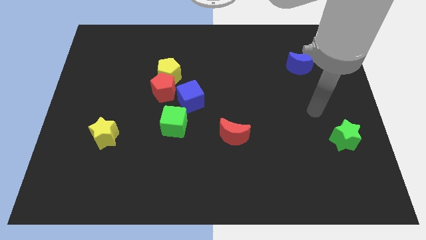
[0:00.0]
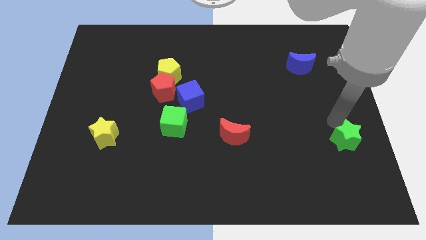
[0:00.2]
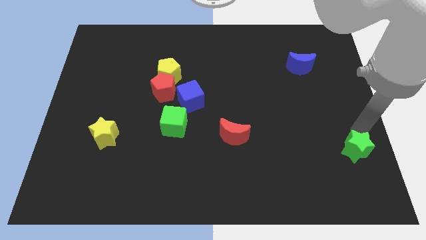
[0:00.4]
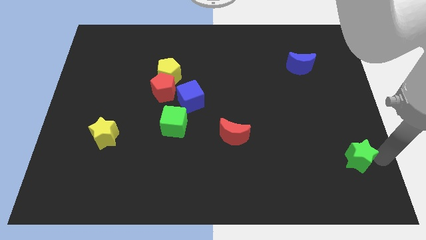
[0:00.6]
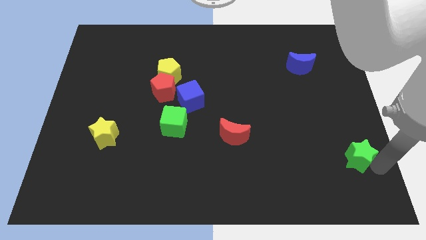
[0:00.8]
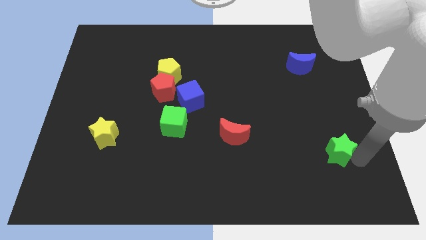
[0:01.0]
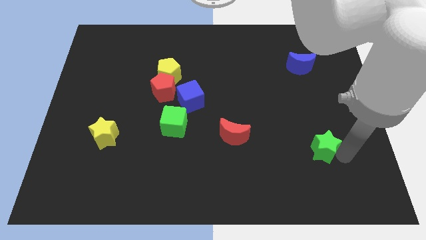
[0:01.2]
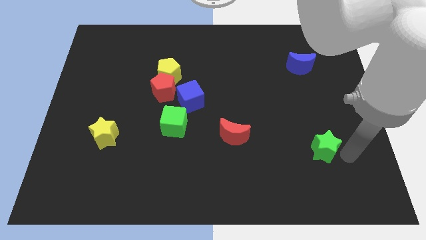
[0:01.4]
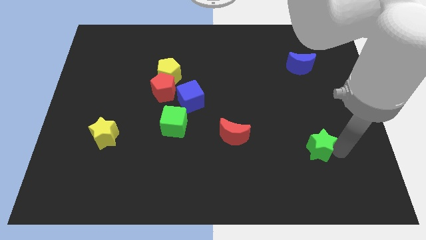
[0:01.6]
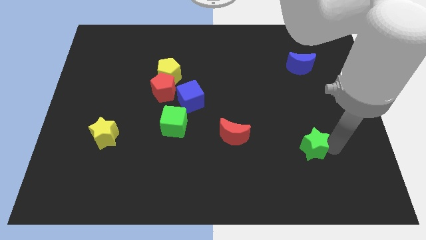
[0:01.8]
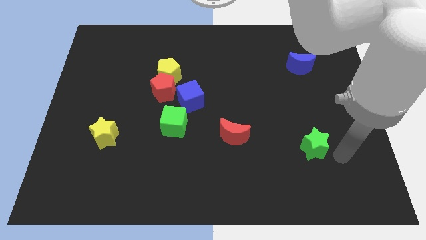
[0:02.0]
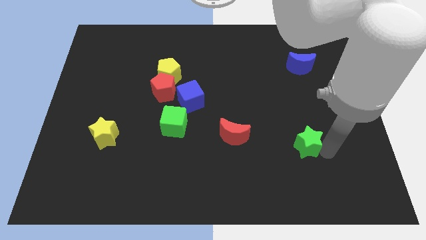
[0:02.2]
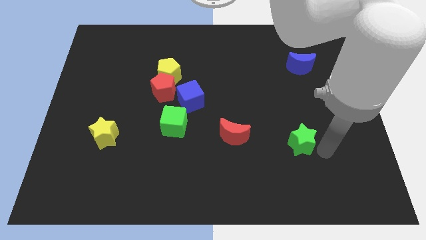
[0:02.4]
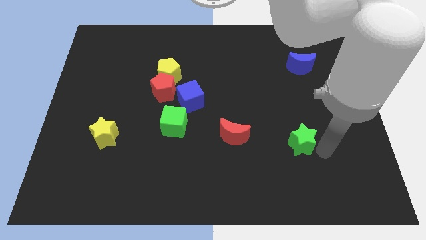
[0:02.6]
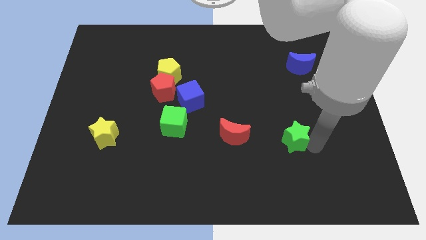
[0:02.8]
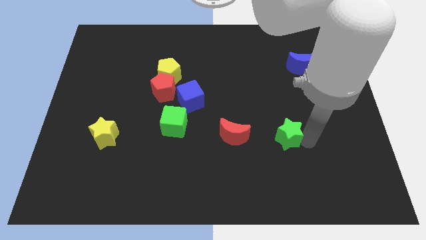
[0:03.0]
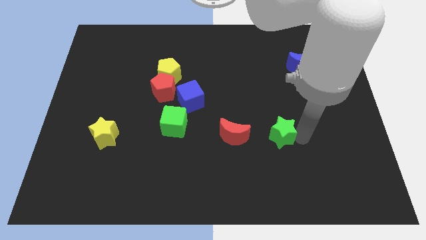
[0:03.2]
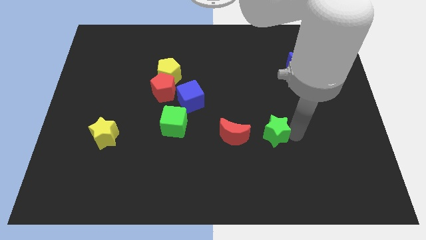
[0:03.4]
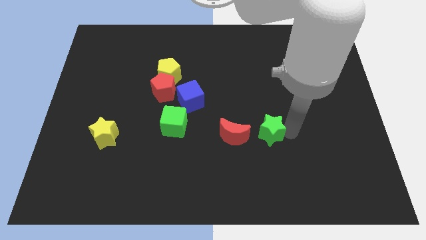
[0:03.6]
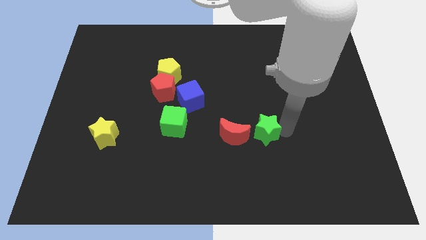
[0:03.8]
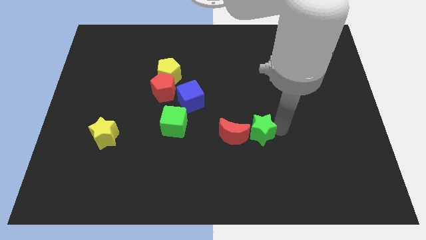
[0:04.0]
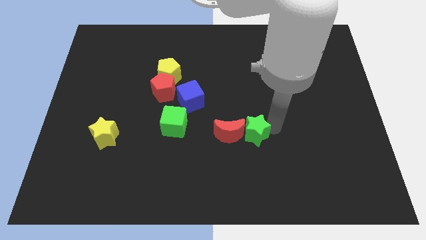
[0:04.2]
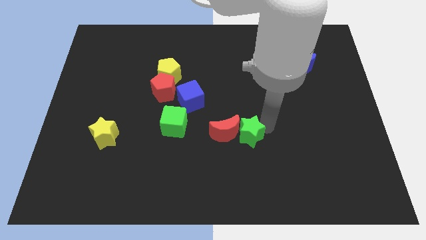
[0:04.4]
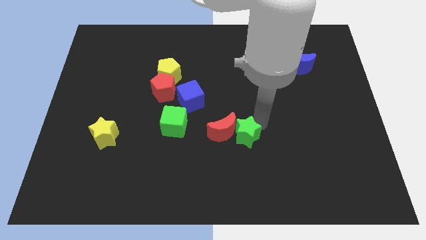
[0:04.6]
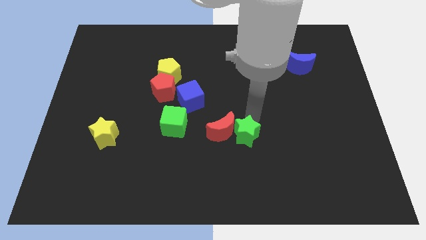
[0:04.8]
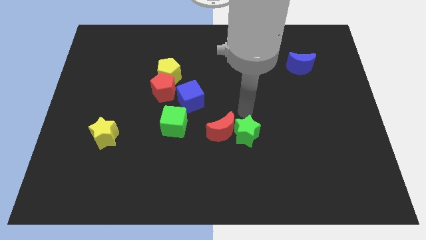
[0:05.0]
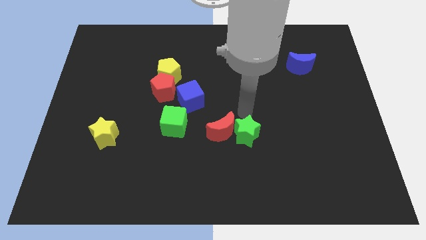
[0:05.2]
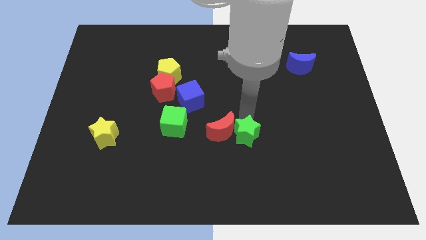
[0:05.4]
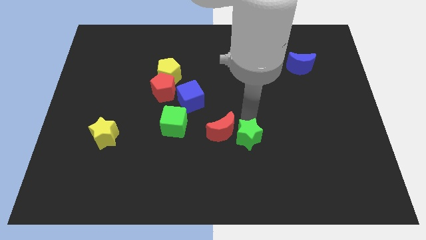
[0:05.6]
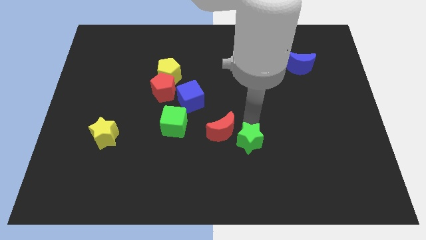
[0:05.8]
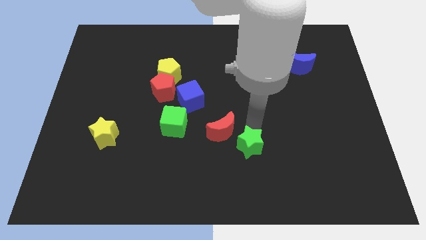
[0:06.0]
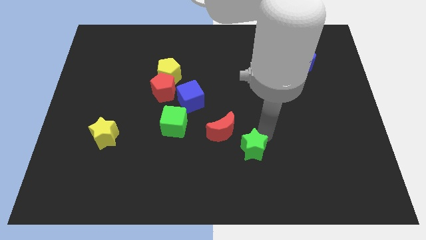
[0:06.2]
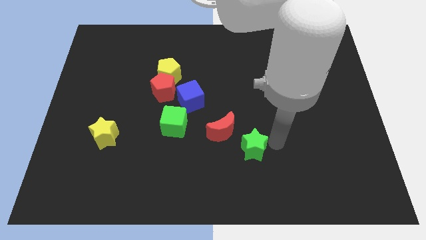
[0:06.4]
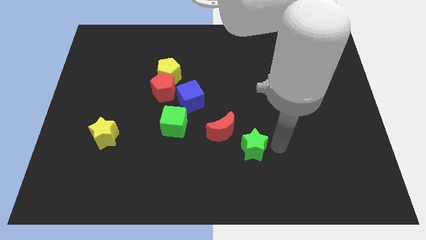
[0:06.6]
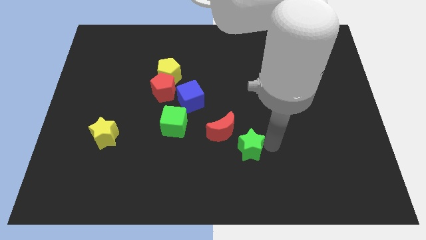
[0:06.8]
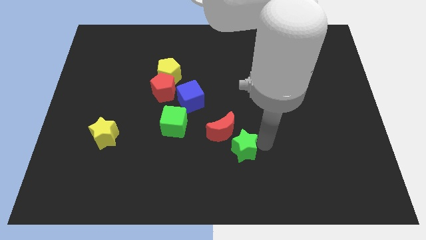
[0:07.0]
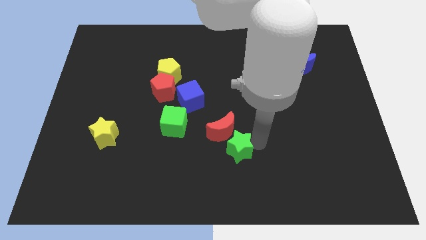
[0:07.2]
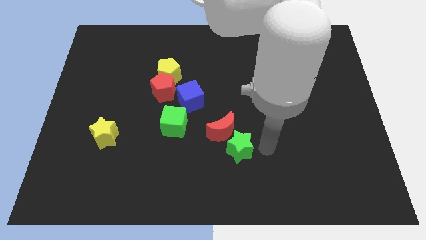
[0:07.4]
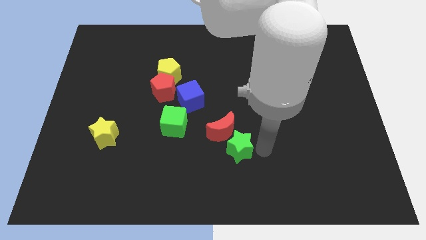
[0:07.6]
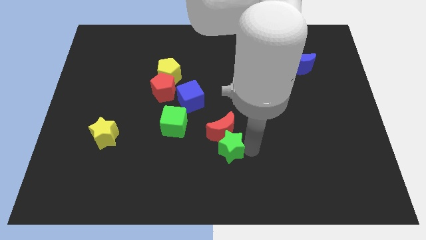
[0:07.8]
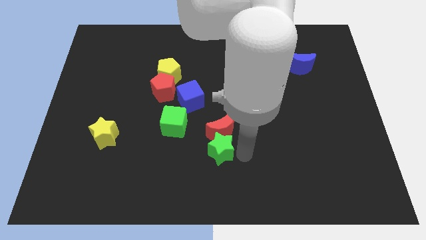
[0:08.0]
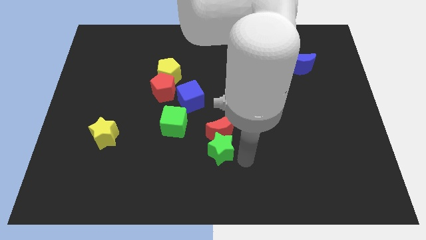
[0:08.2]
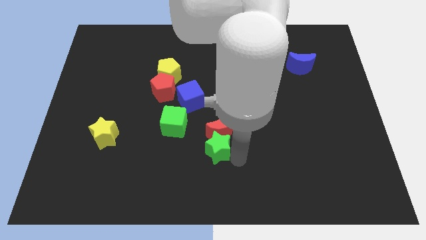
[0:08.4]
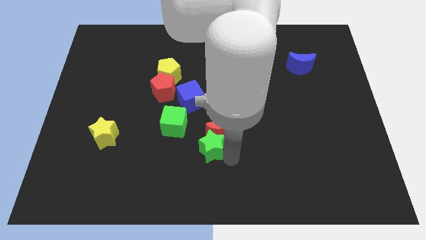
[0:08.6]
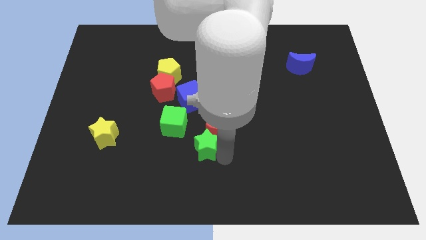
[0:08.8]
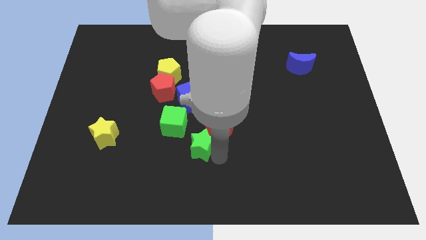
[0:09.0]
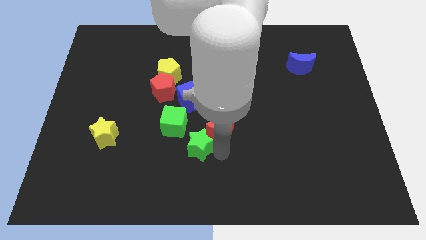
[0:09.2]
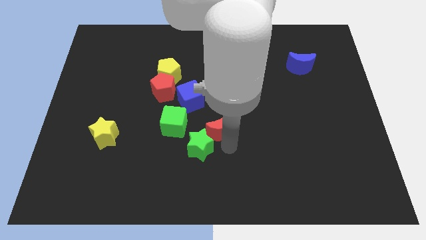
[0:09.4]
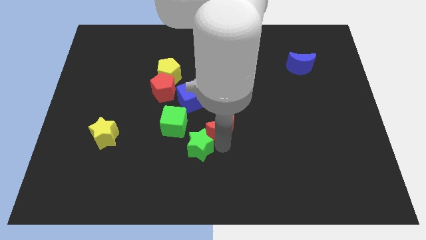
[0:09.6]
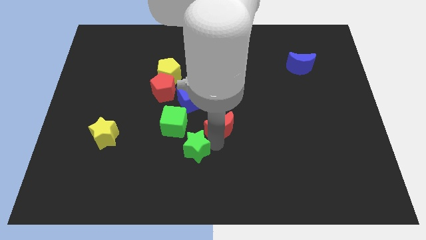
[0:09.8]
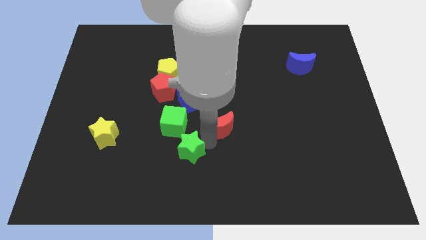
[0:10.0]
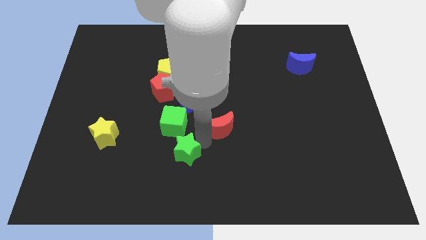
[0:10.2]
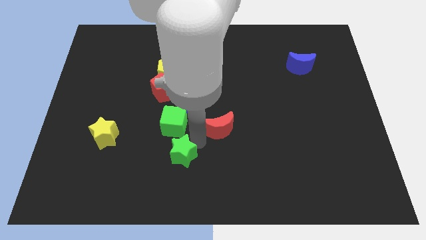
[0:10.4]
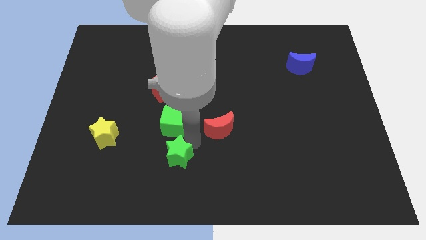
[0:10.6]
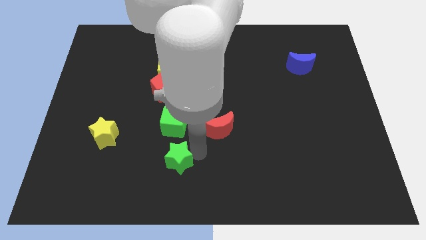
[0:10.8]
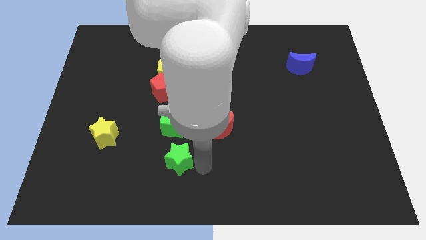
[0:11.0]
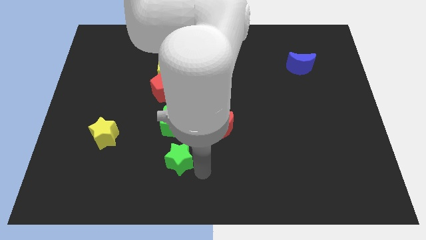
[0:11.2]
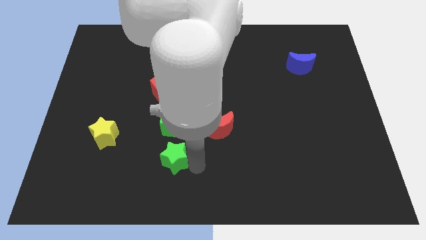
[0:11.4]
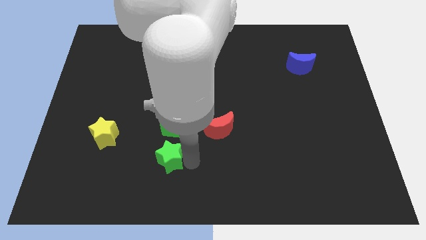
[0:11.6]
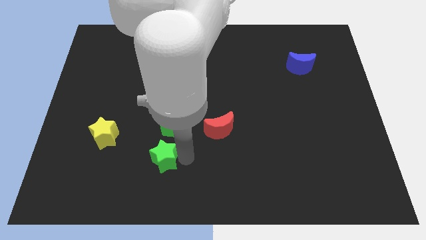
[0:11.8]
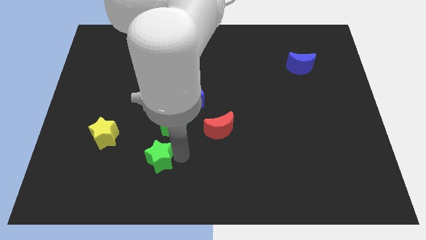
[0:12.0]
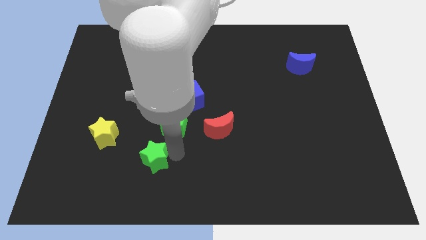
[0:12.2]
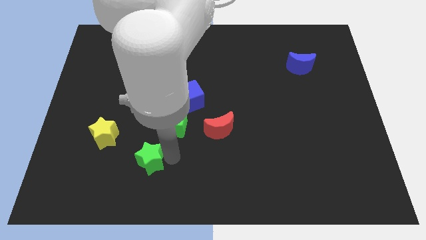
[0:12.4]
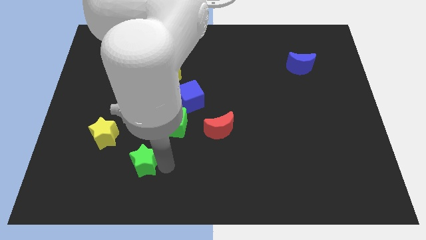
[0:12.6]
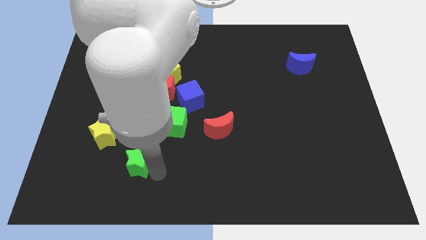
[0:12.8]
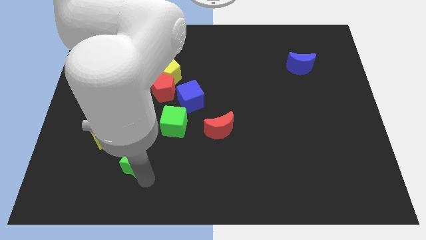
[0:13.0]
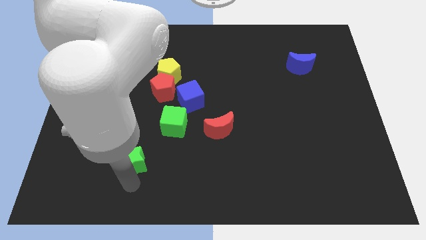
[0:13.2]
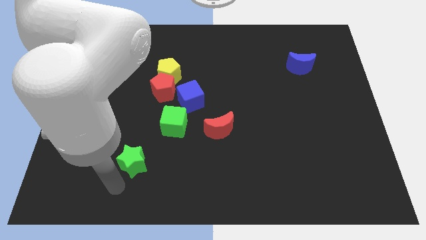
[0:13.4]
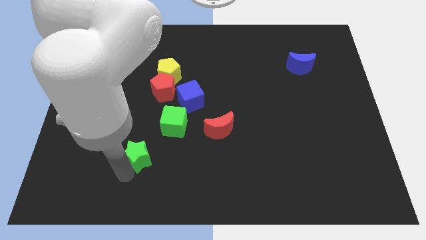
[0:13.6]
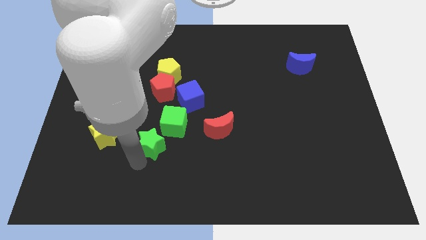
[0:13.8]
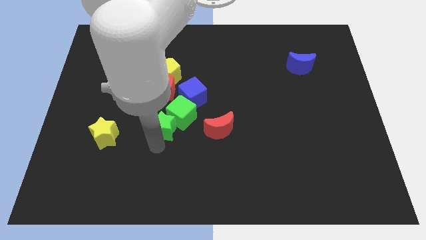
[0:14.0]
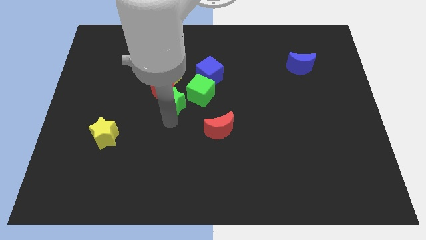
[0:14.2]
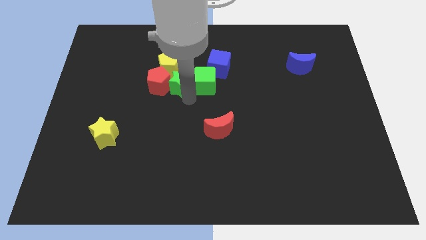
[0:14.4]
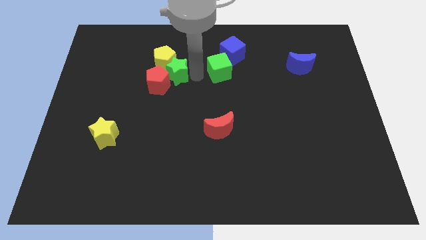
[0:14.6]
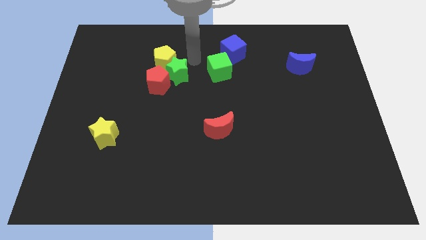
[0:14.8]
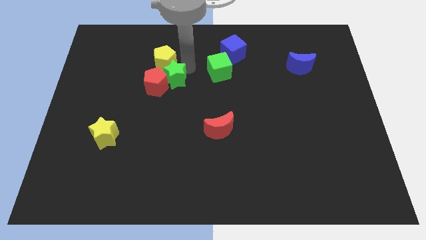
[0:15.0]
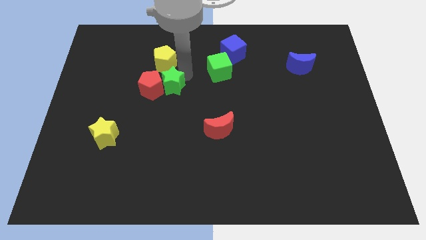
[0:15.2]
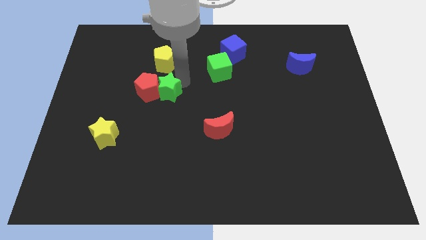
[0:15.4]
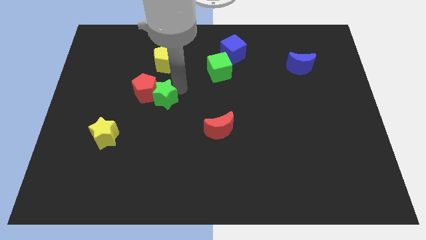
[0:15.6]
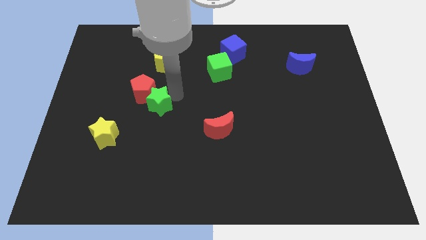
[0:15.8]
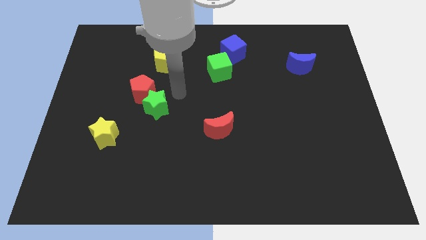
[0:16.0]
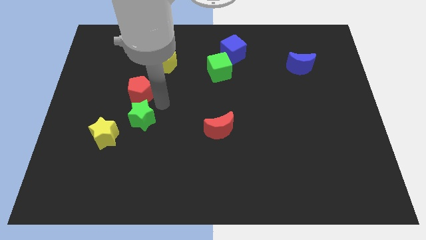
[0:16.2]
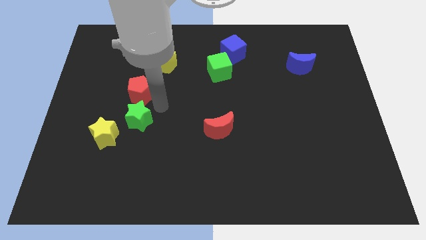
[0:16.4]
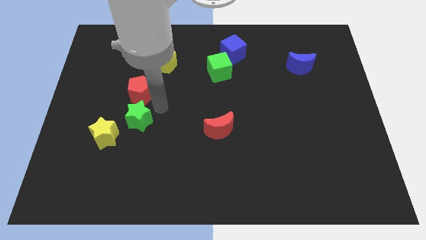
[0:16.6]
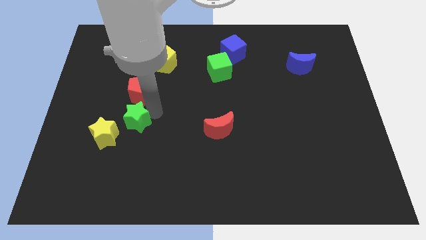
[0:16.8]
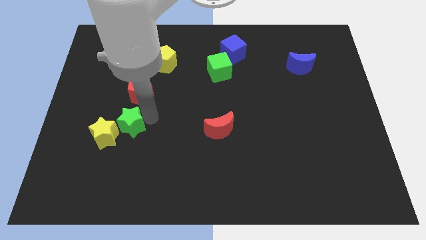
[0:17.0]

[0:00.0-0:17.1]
put the green star towards the yellow star
